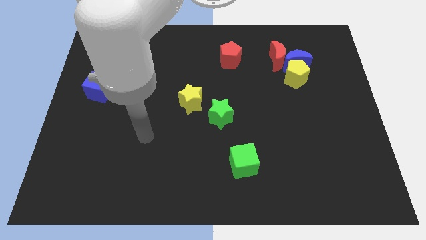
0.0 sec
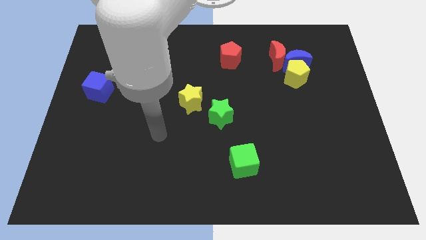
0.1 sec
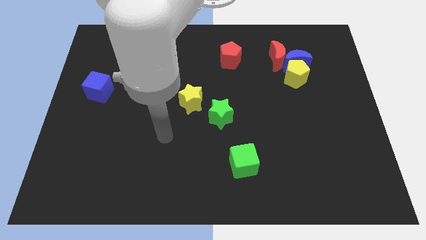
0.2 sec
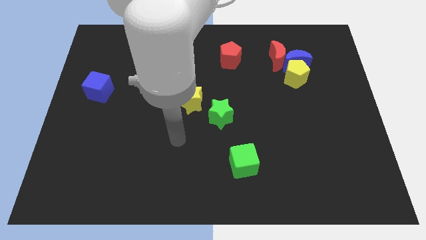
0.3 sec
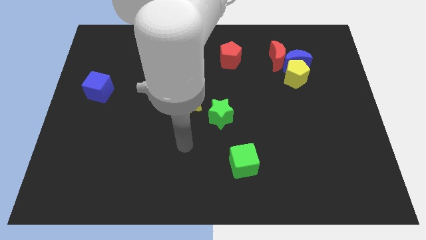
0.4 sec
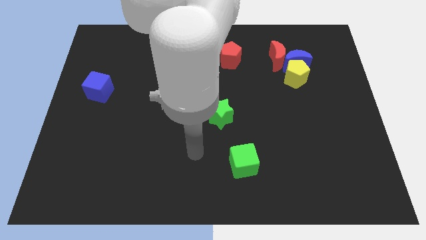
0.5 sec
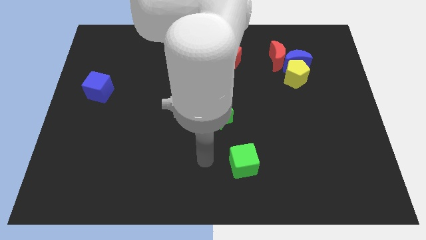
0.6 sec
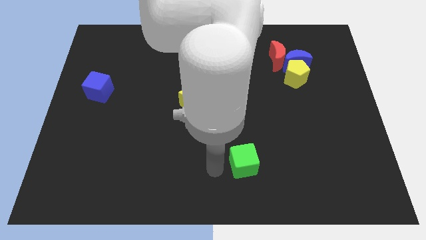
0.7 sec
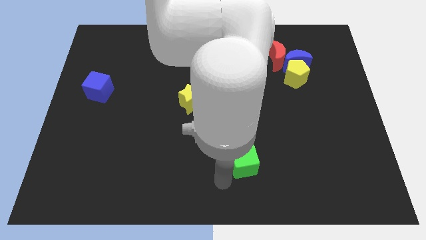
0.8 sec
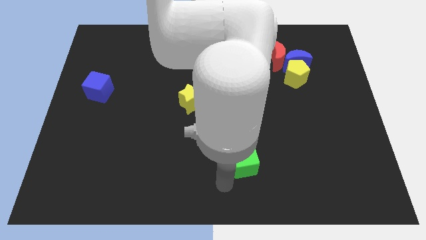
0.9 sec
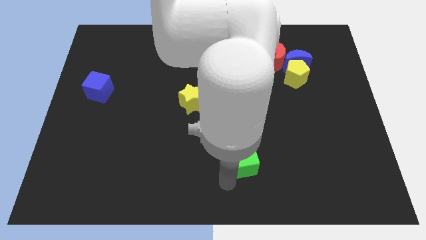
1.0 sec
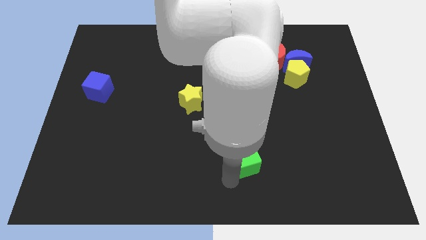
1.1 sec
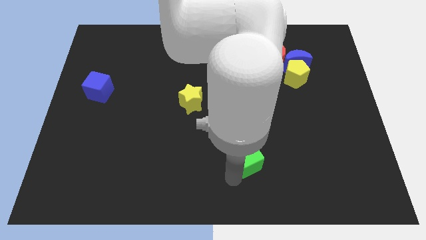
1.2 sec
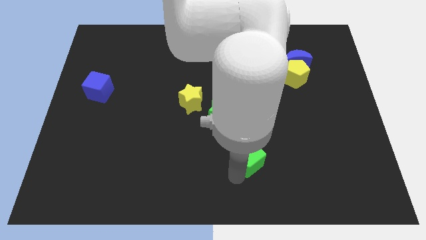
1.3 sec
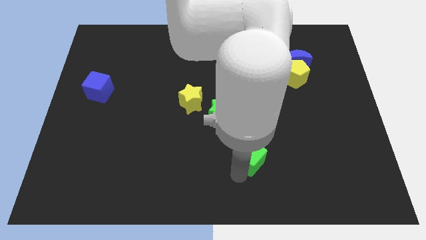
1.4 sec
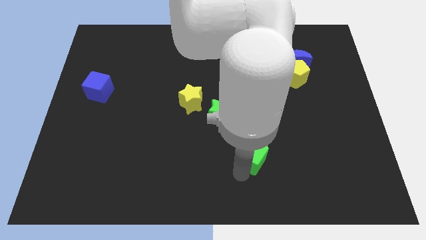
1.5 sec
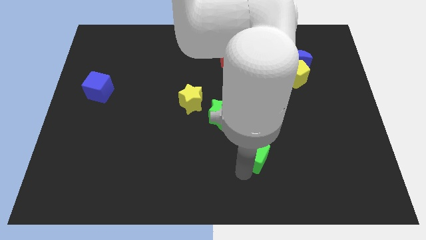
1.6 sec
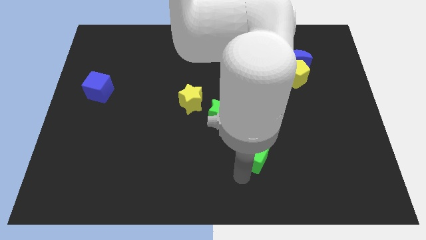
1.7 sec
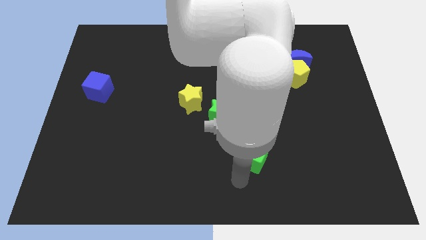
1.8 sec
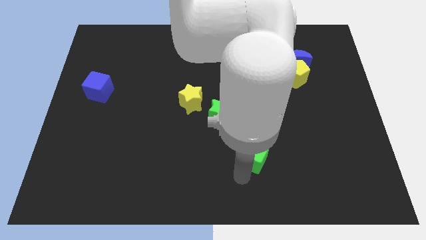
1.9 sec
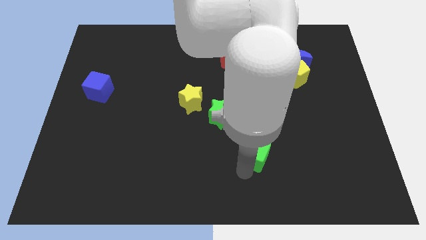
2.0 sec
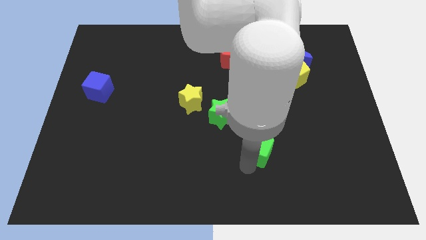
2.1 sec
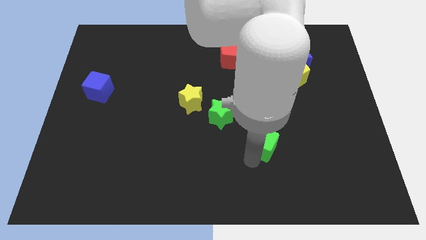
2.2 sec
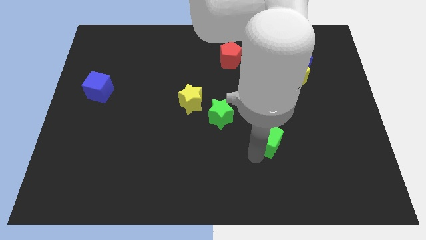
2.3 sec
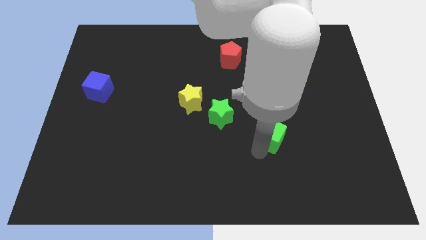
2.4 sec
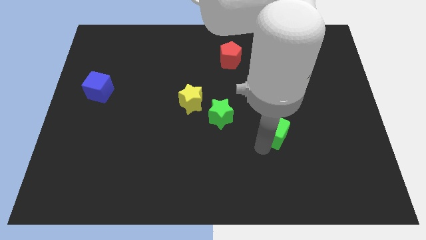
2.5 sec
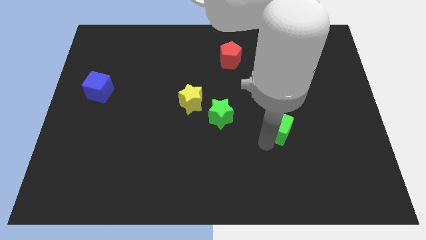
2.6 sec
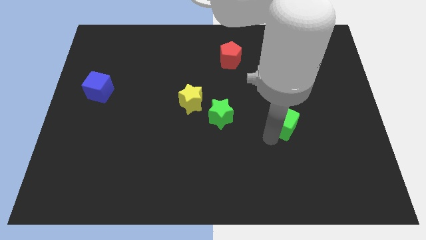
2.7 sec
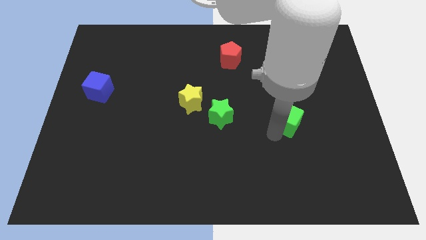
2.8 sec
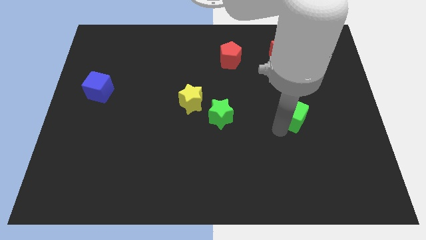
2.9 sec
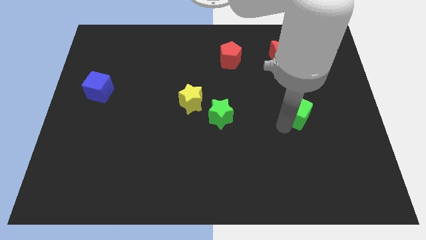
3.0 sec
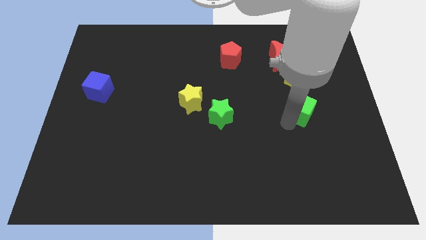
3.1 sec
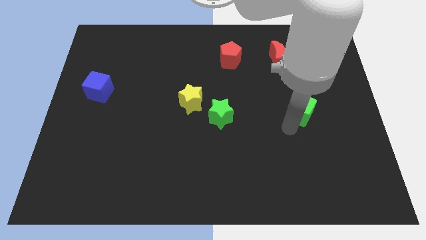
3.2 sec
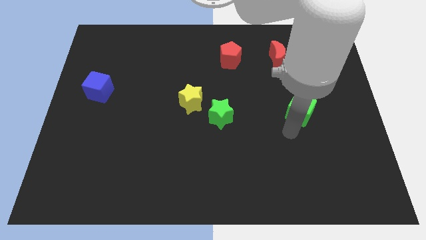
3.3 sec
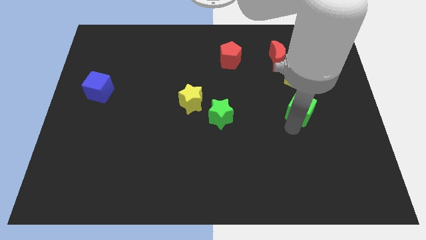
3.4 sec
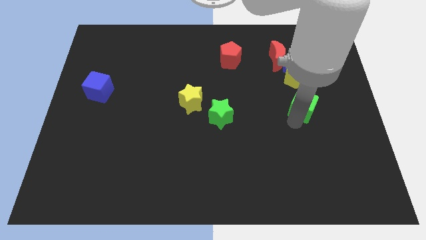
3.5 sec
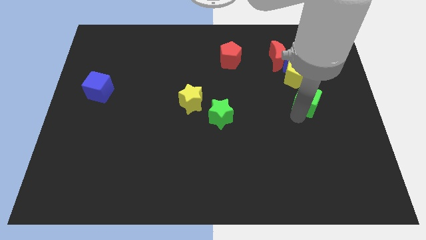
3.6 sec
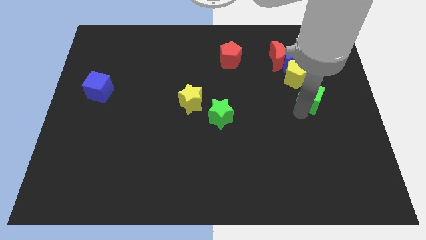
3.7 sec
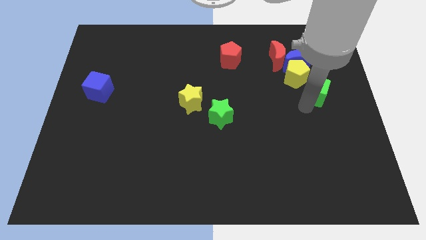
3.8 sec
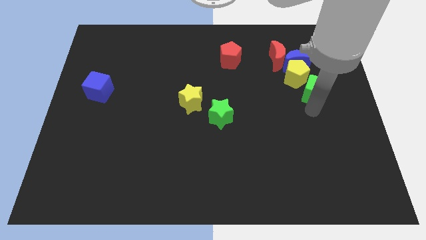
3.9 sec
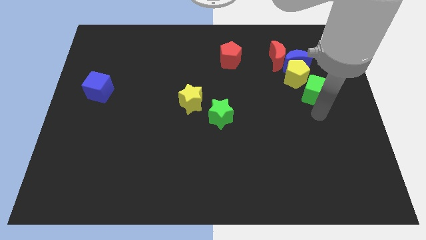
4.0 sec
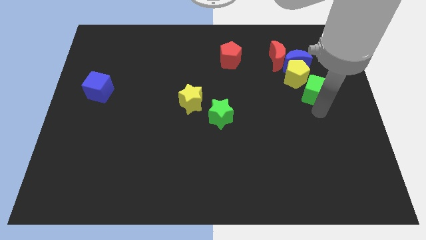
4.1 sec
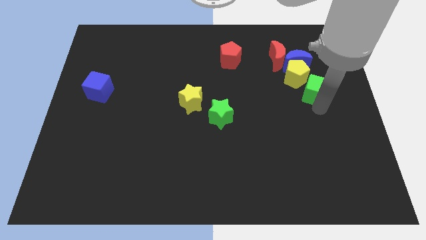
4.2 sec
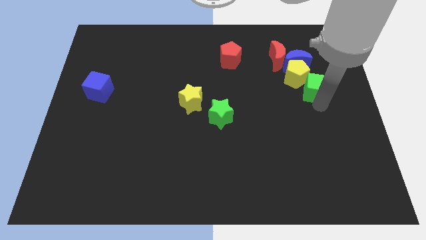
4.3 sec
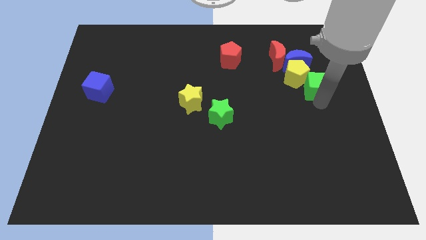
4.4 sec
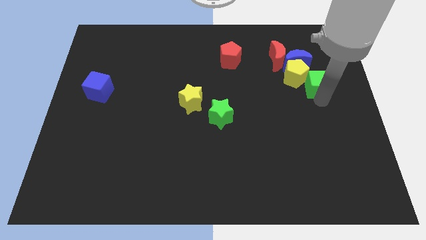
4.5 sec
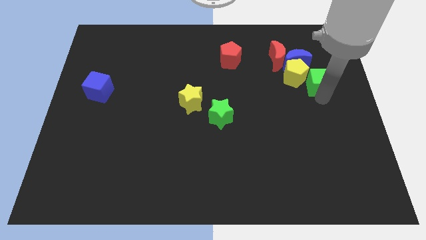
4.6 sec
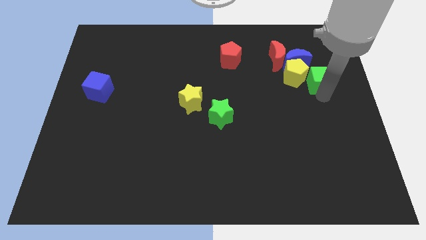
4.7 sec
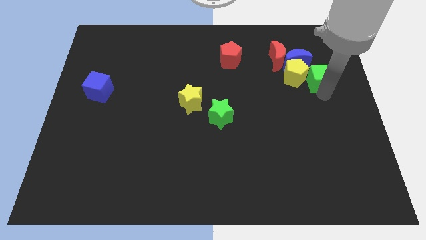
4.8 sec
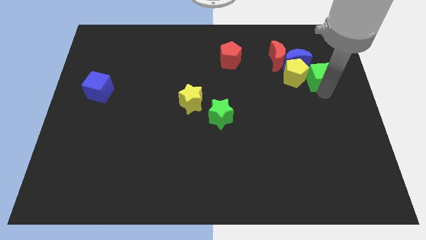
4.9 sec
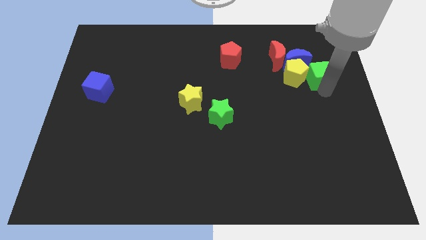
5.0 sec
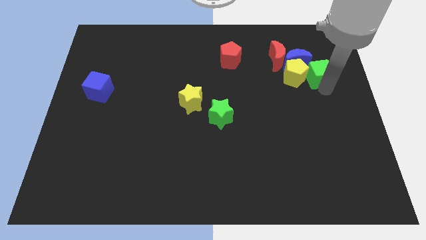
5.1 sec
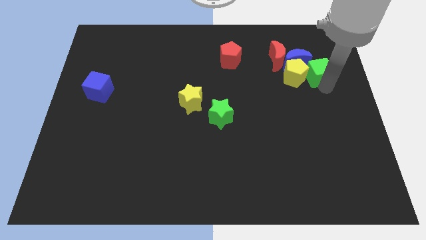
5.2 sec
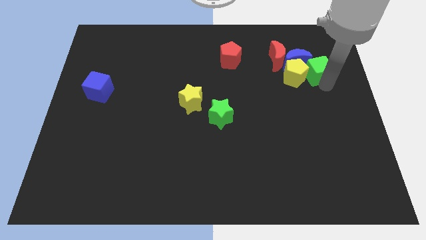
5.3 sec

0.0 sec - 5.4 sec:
move the green cube close to the blue moon

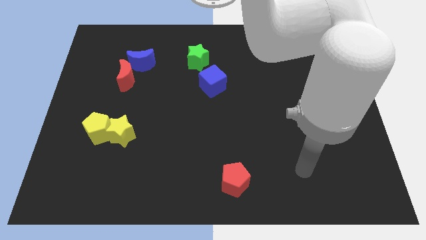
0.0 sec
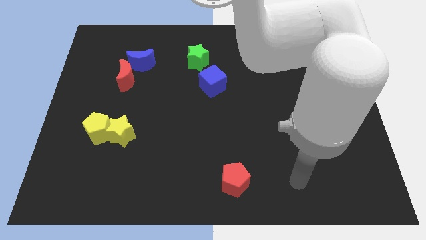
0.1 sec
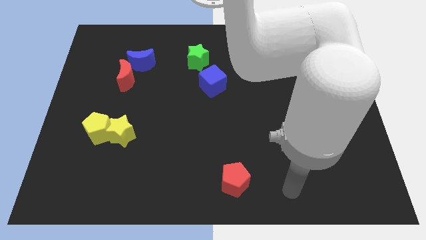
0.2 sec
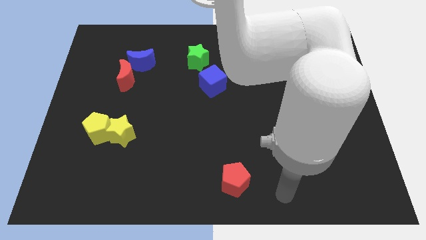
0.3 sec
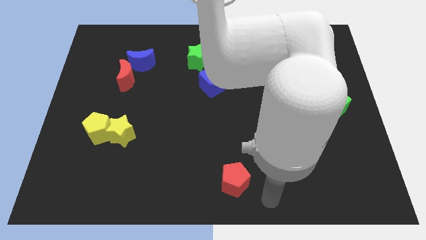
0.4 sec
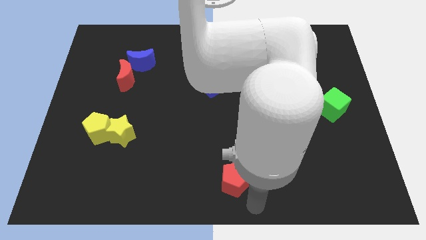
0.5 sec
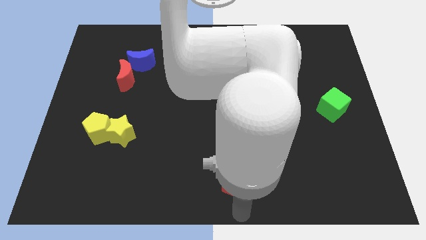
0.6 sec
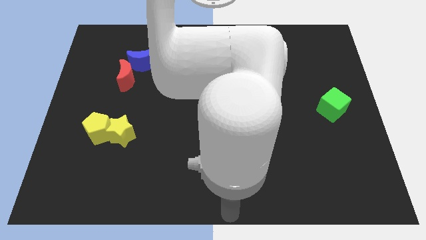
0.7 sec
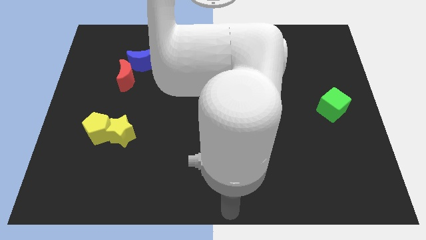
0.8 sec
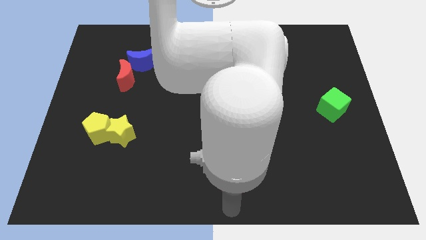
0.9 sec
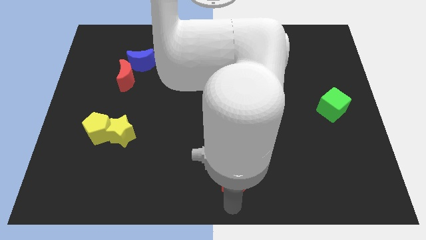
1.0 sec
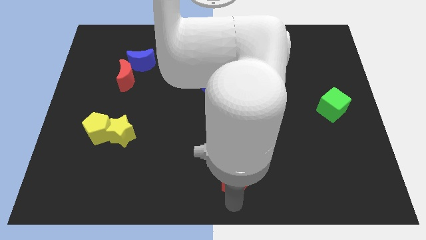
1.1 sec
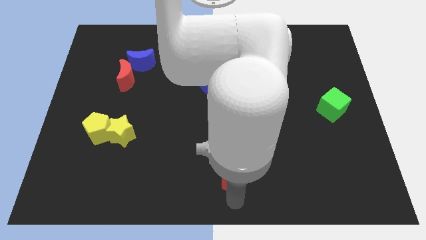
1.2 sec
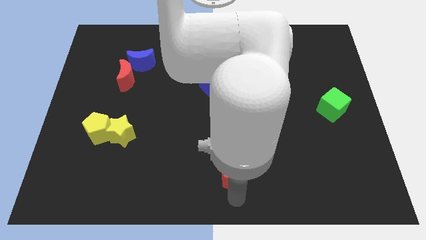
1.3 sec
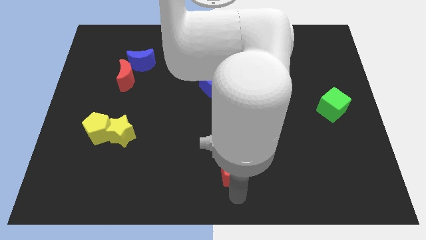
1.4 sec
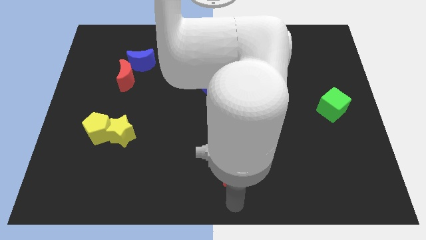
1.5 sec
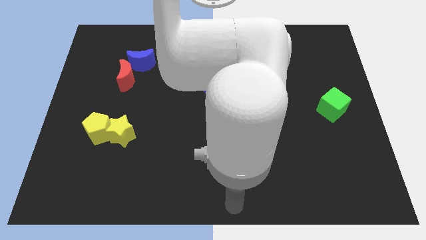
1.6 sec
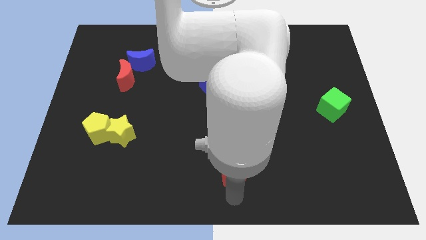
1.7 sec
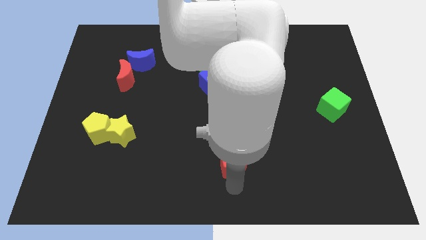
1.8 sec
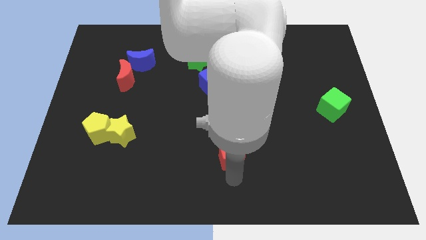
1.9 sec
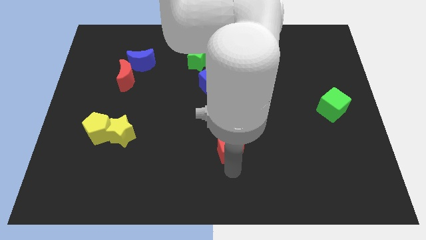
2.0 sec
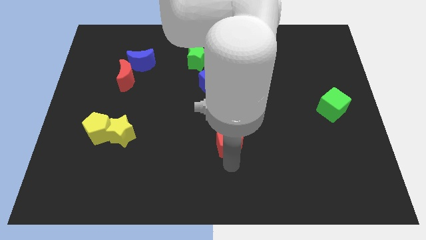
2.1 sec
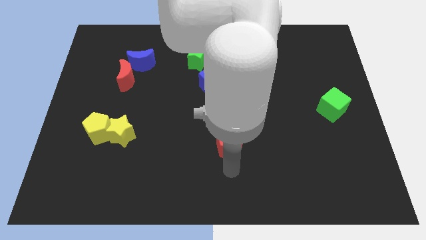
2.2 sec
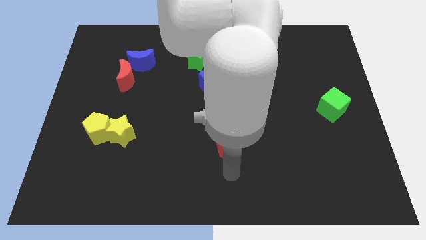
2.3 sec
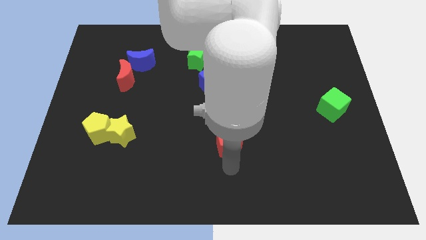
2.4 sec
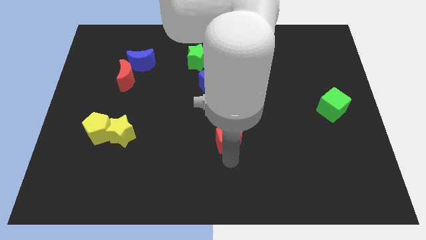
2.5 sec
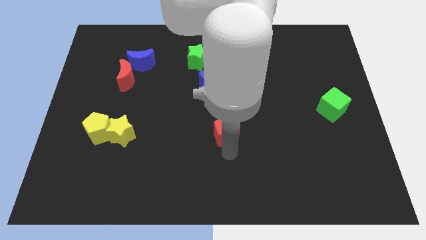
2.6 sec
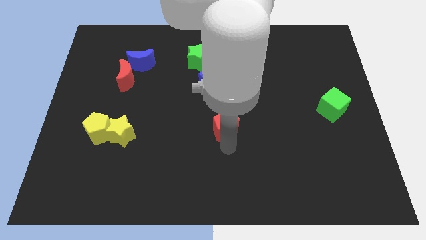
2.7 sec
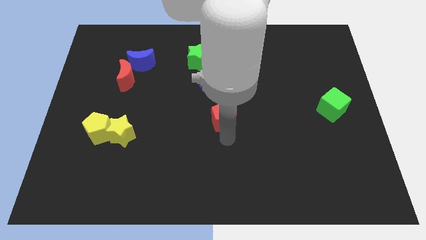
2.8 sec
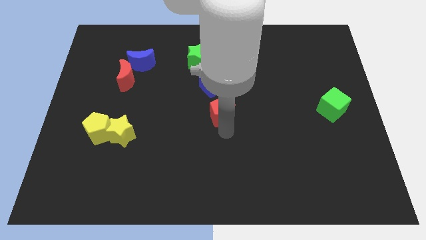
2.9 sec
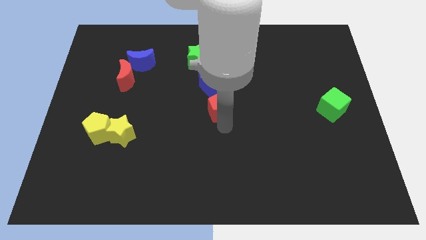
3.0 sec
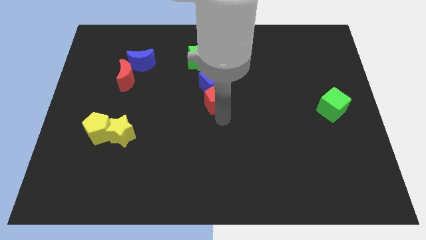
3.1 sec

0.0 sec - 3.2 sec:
slide the red pentagon to the blue cube
